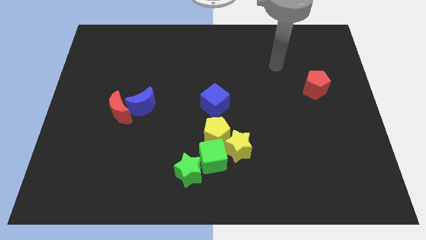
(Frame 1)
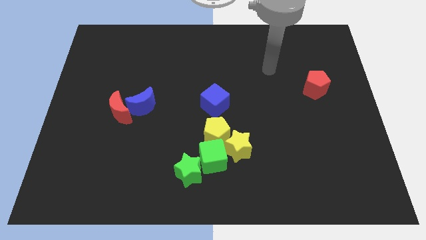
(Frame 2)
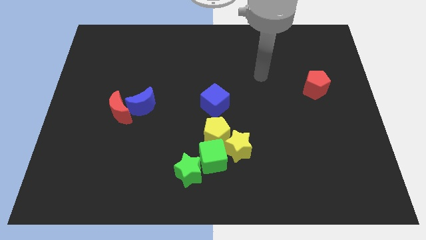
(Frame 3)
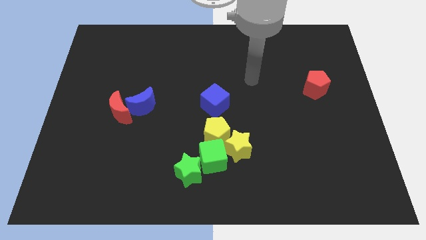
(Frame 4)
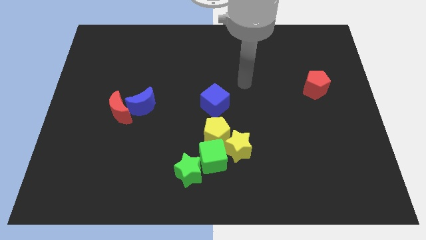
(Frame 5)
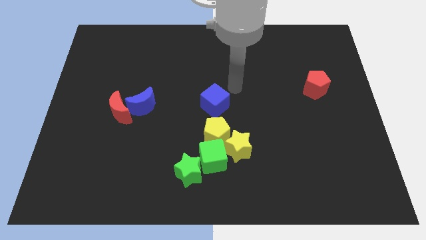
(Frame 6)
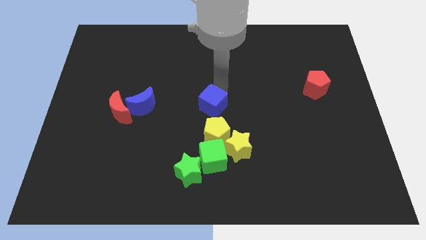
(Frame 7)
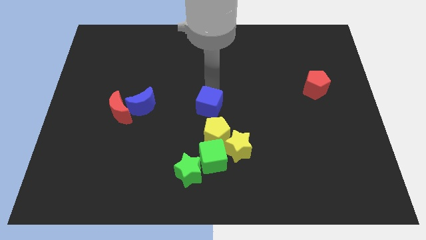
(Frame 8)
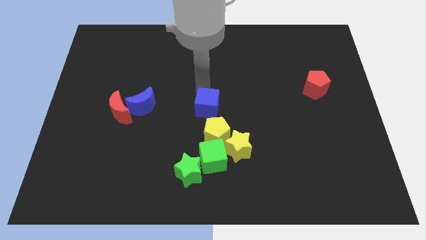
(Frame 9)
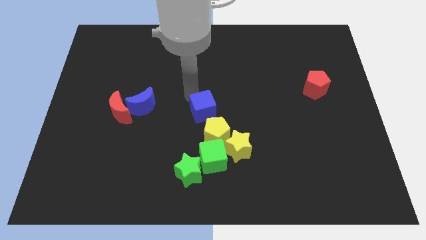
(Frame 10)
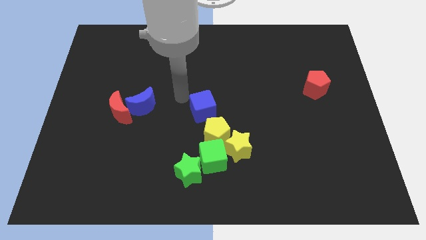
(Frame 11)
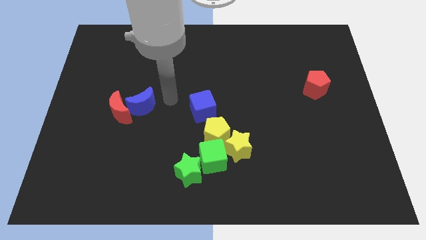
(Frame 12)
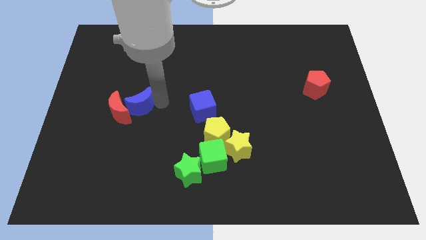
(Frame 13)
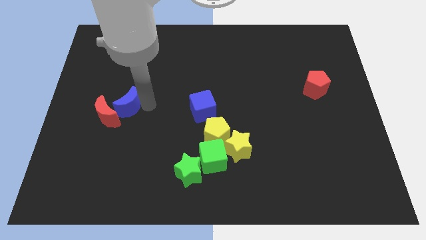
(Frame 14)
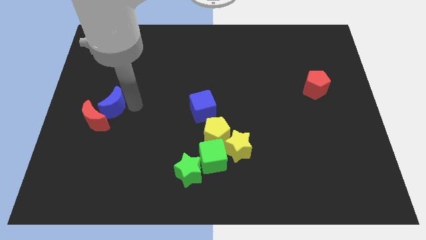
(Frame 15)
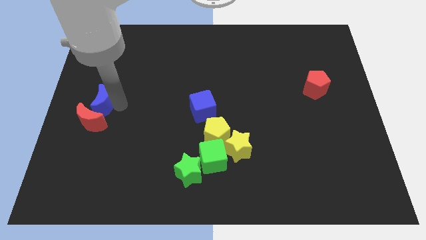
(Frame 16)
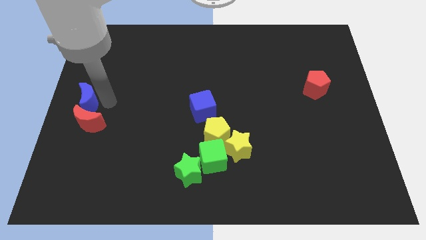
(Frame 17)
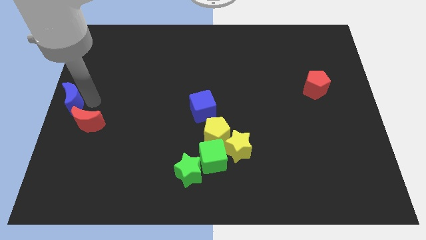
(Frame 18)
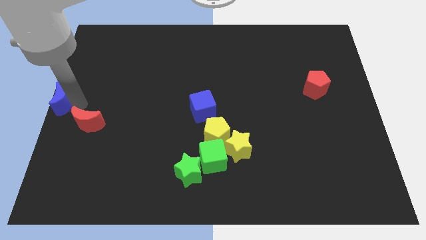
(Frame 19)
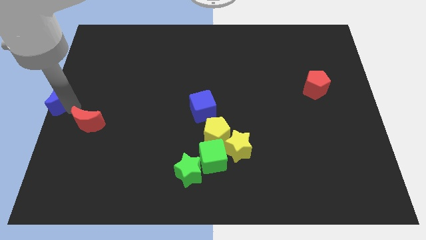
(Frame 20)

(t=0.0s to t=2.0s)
move the red moon away from the blue moon

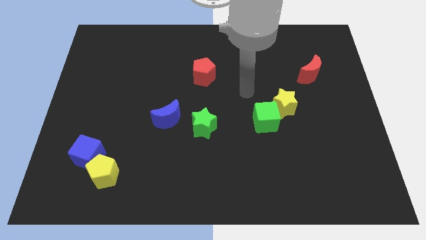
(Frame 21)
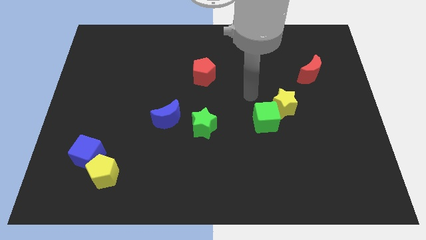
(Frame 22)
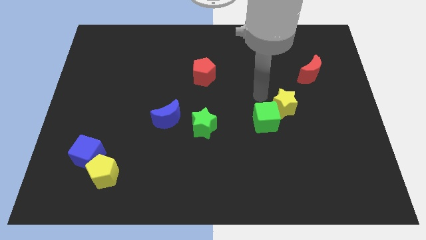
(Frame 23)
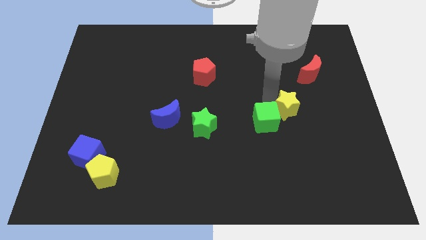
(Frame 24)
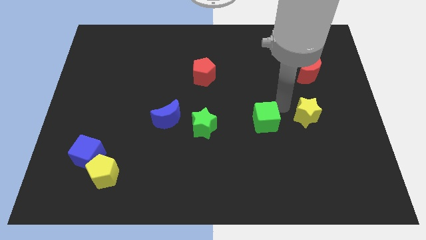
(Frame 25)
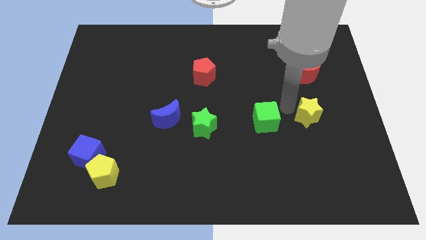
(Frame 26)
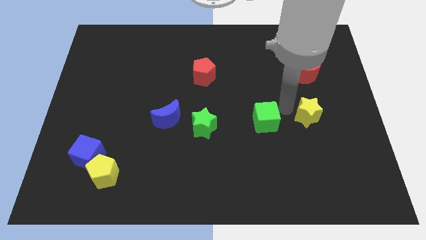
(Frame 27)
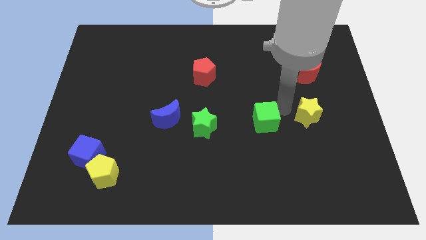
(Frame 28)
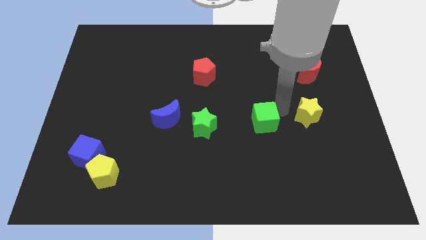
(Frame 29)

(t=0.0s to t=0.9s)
pull the green cube apart from the yellow star

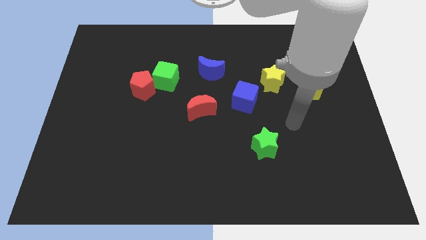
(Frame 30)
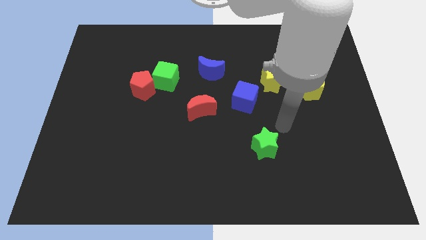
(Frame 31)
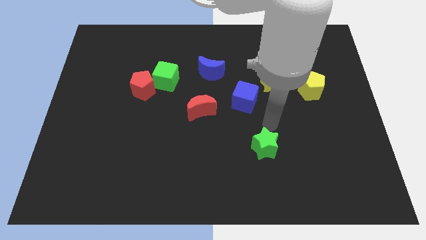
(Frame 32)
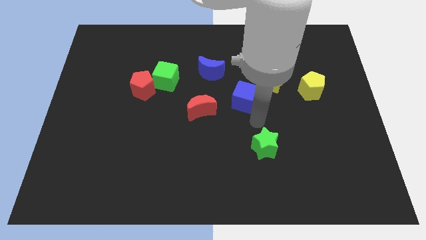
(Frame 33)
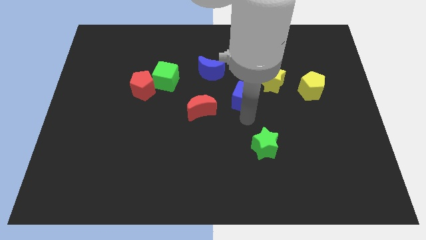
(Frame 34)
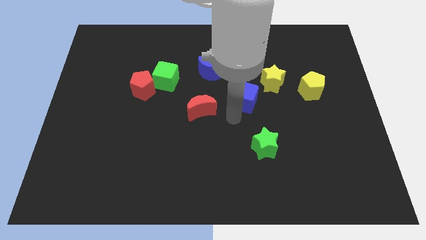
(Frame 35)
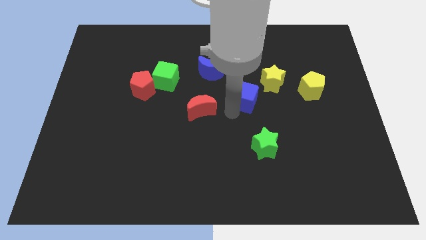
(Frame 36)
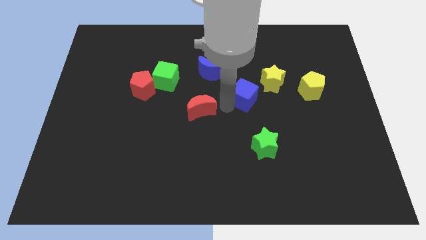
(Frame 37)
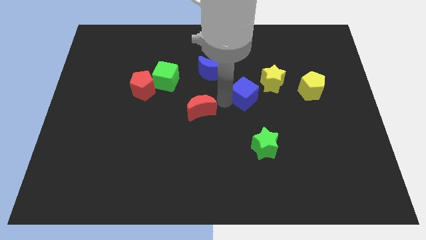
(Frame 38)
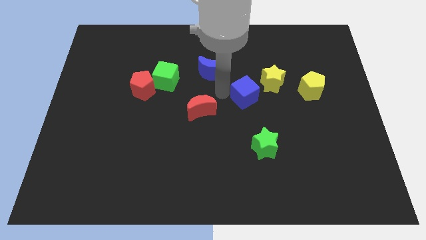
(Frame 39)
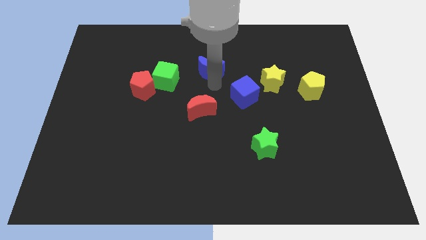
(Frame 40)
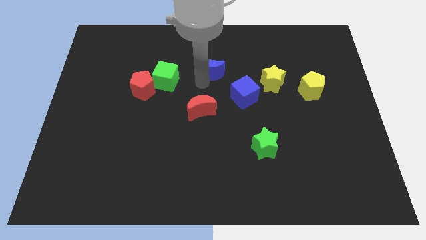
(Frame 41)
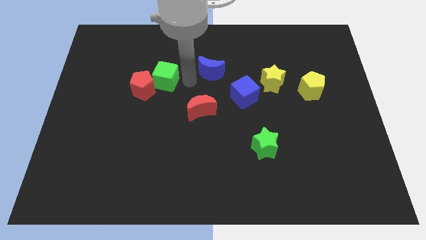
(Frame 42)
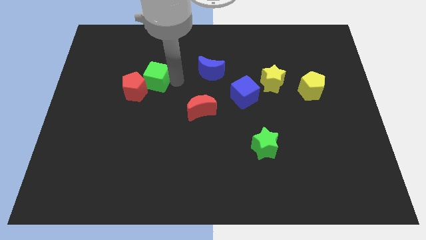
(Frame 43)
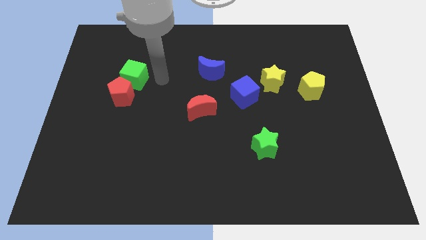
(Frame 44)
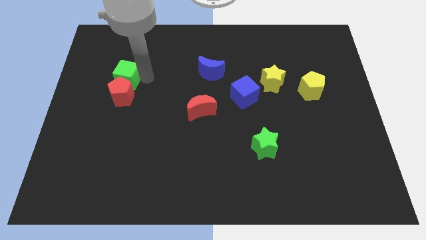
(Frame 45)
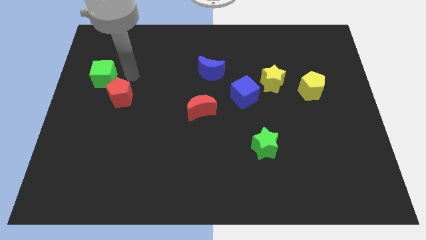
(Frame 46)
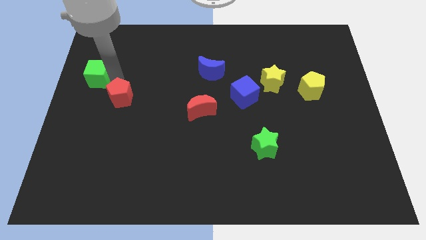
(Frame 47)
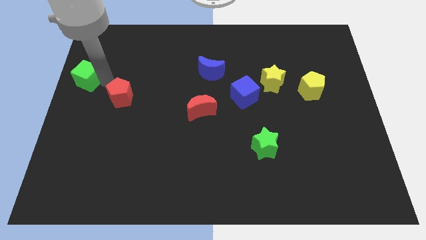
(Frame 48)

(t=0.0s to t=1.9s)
pull the red pentagon apart from the green cube

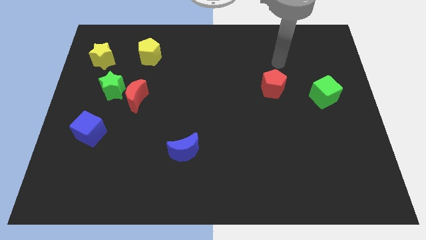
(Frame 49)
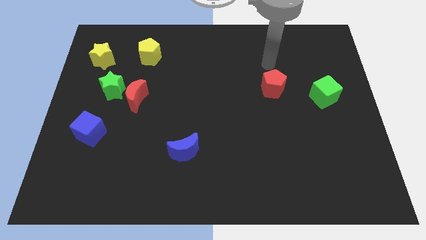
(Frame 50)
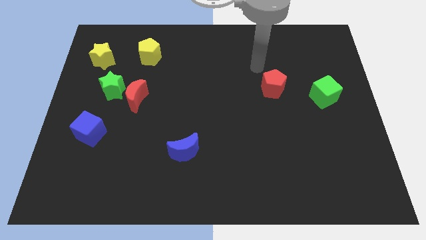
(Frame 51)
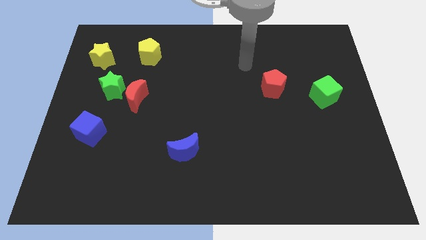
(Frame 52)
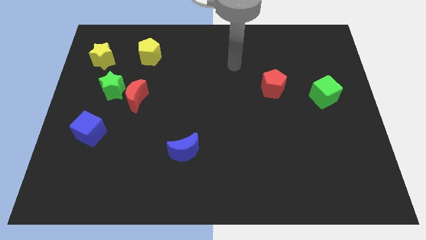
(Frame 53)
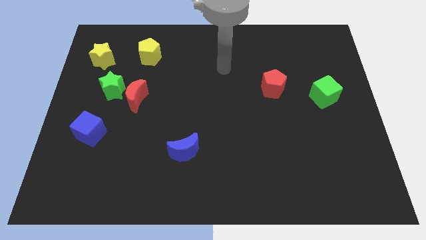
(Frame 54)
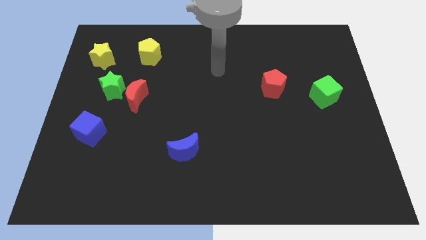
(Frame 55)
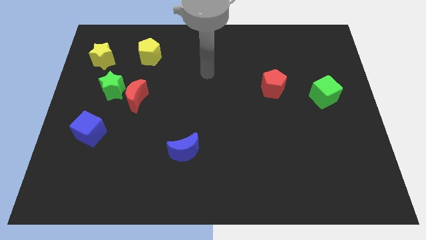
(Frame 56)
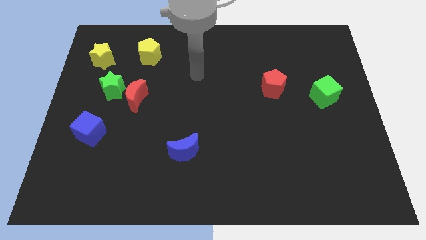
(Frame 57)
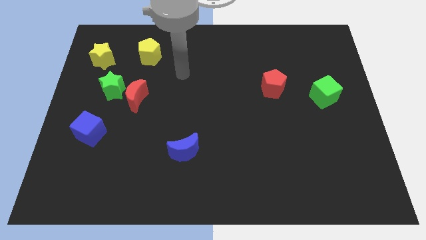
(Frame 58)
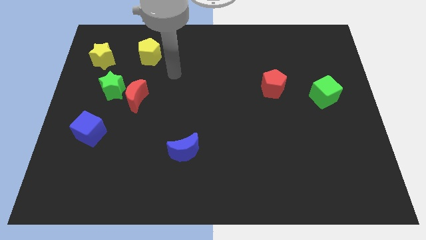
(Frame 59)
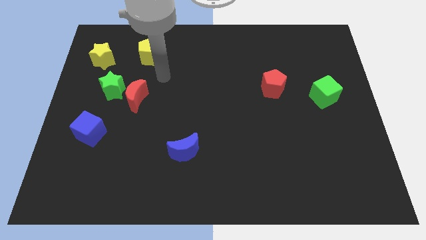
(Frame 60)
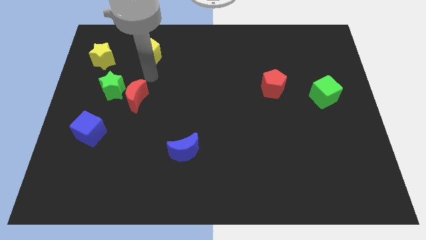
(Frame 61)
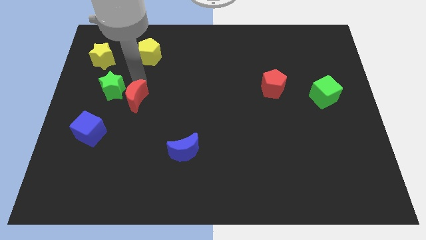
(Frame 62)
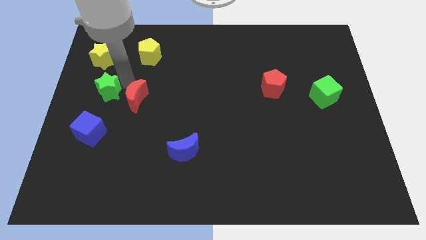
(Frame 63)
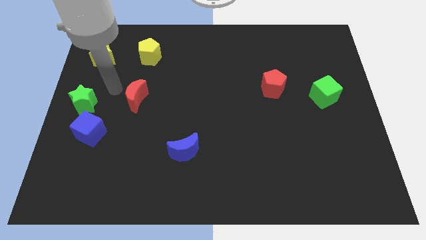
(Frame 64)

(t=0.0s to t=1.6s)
pull the red moon apart from the green star

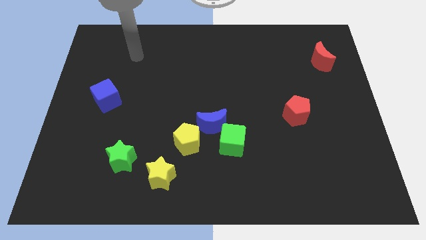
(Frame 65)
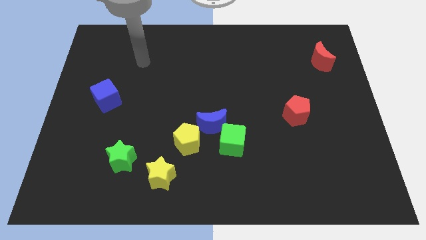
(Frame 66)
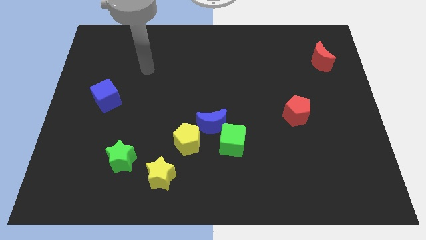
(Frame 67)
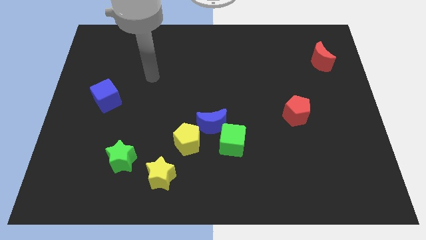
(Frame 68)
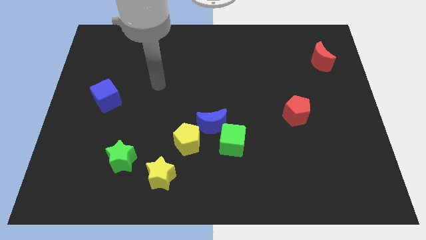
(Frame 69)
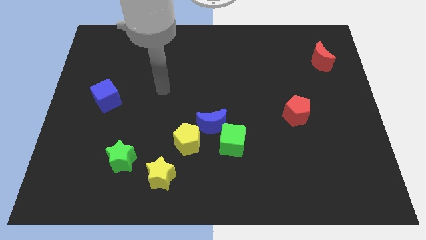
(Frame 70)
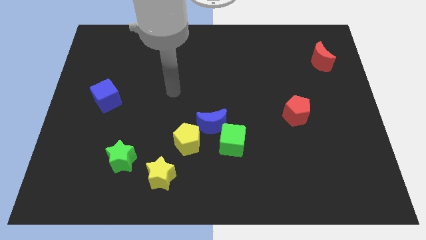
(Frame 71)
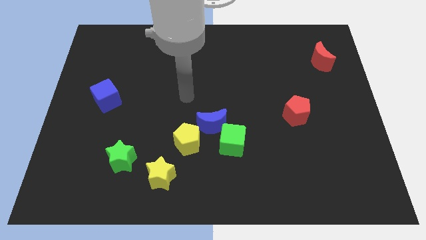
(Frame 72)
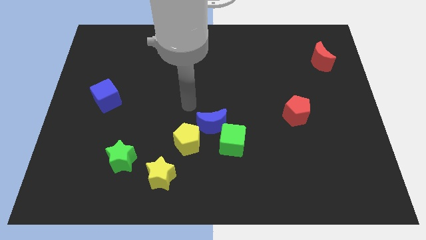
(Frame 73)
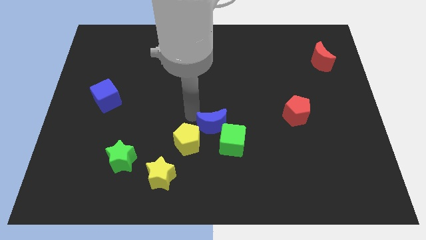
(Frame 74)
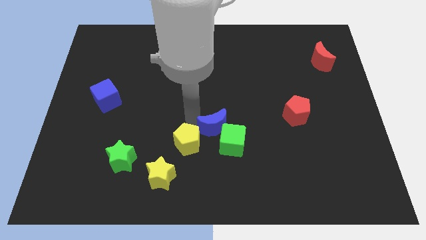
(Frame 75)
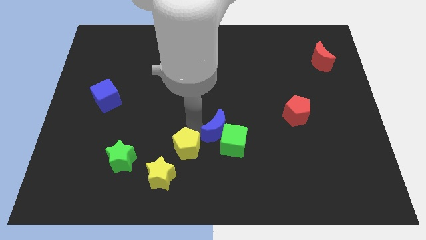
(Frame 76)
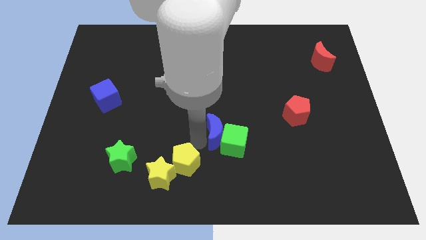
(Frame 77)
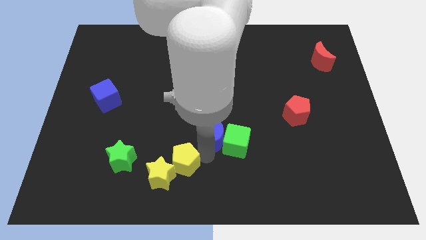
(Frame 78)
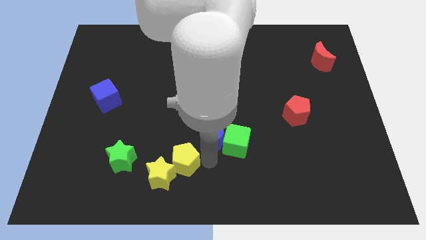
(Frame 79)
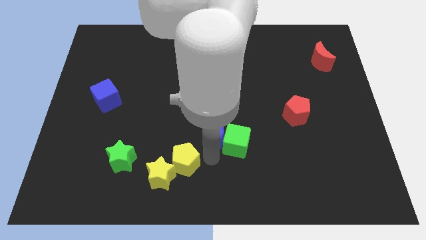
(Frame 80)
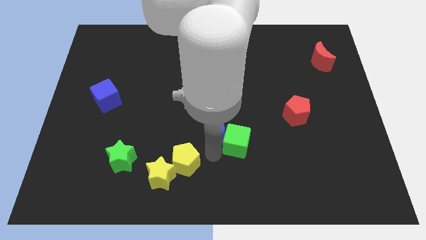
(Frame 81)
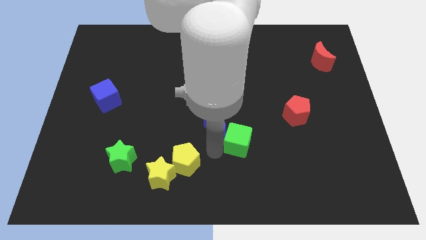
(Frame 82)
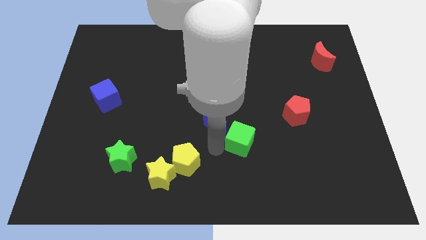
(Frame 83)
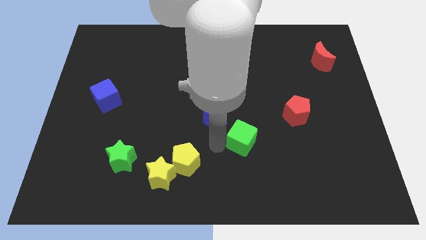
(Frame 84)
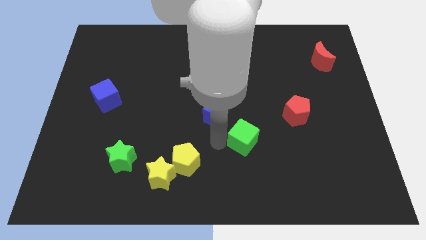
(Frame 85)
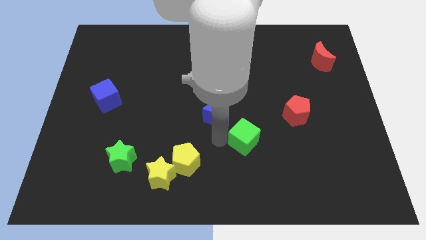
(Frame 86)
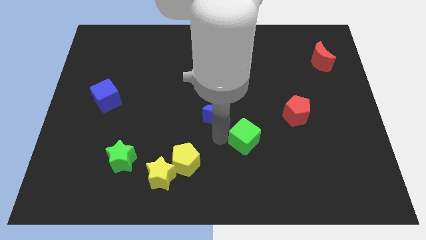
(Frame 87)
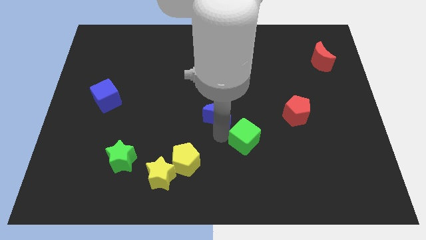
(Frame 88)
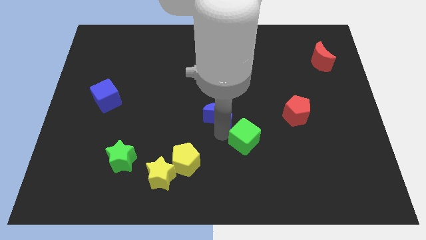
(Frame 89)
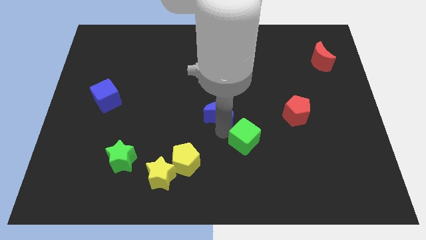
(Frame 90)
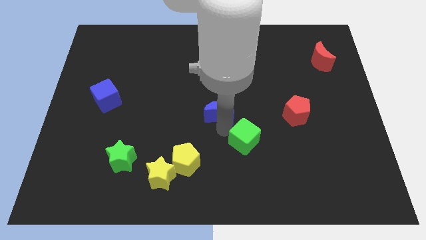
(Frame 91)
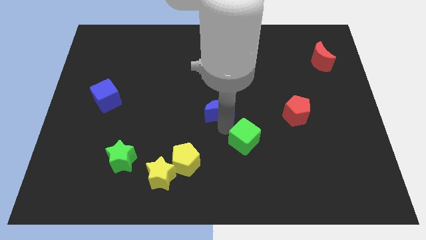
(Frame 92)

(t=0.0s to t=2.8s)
move the blue moon away from the green cube and yellow pentagon
